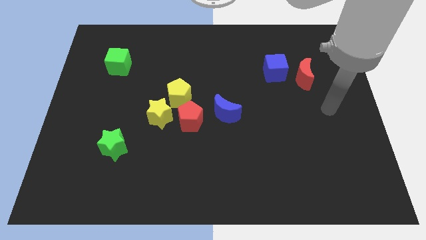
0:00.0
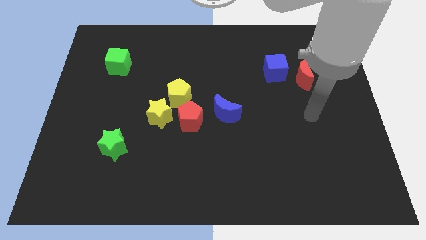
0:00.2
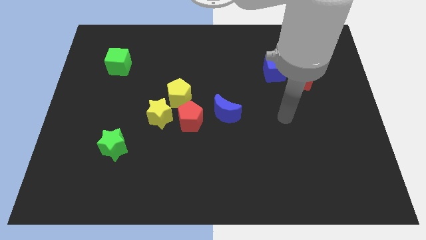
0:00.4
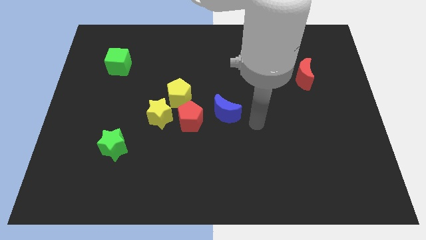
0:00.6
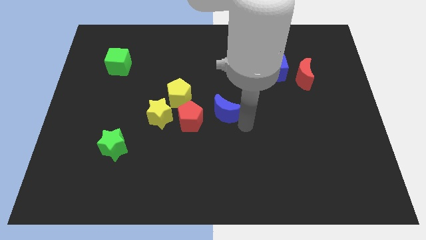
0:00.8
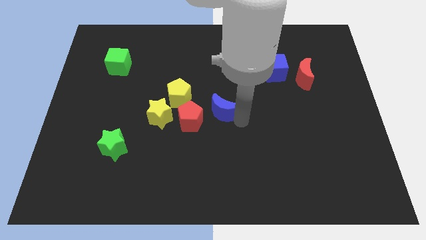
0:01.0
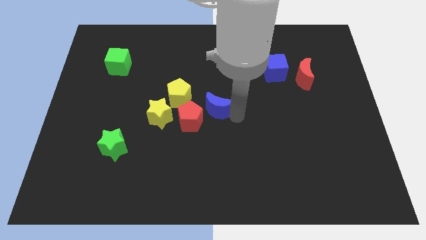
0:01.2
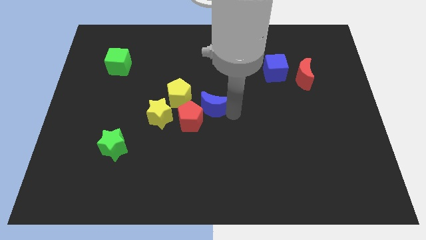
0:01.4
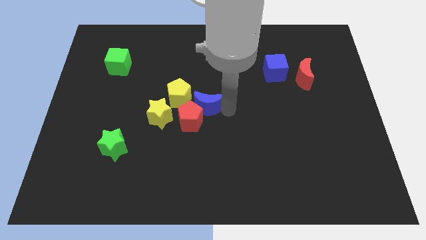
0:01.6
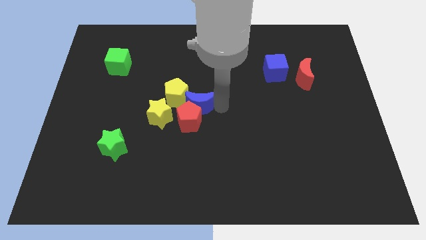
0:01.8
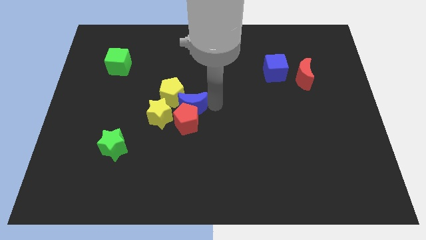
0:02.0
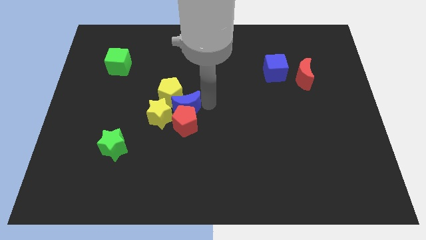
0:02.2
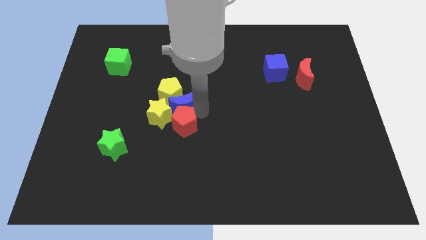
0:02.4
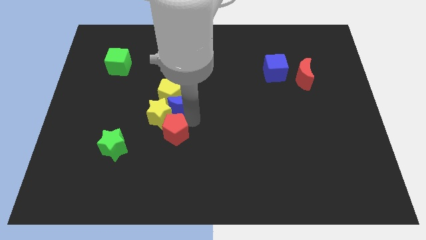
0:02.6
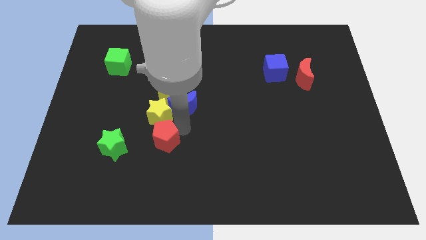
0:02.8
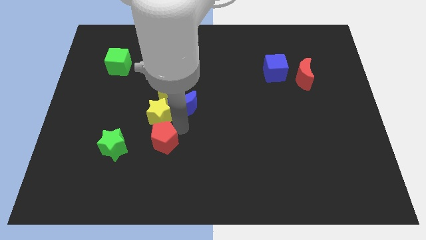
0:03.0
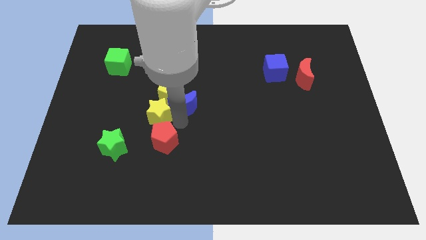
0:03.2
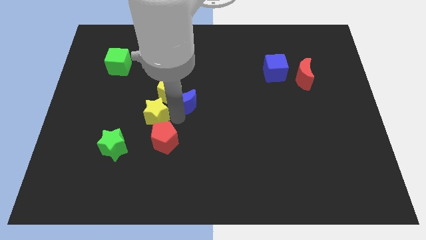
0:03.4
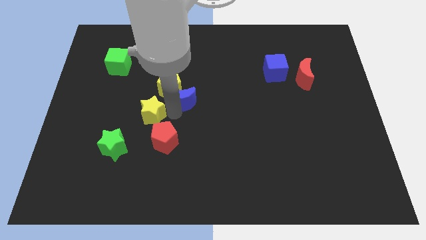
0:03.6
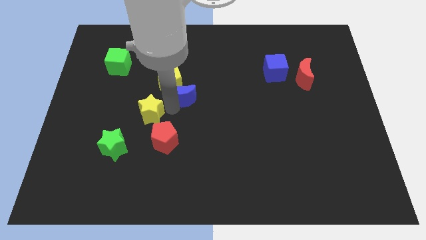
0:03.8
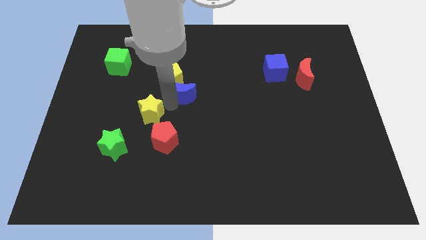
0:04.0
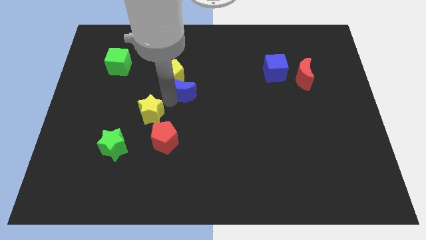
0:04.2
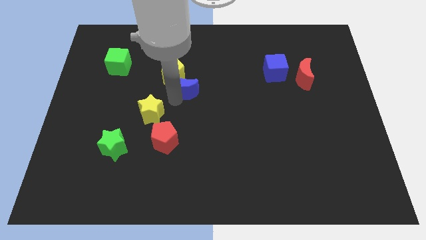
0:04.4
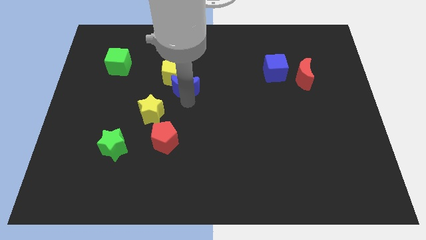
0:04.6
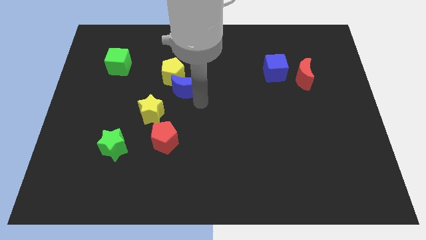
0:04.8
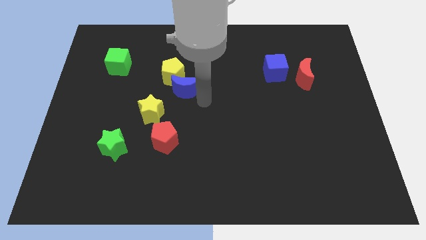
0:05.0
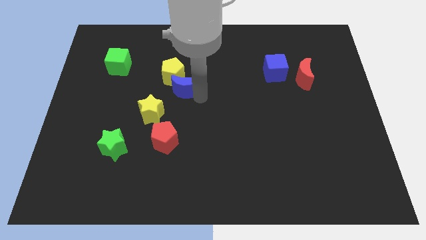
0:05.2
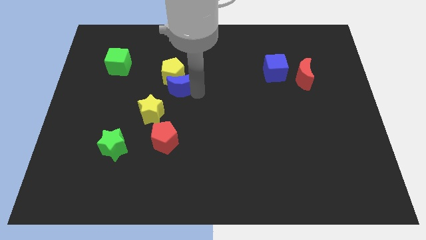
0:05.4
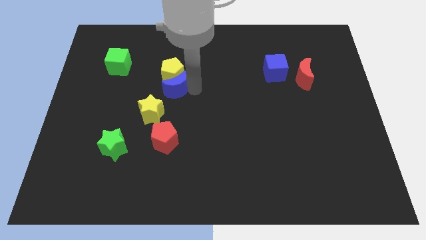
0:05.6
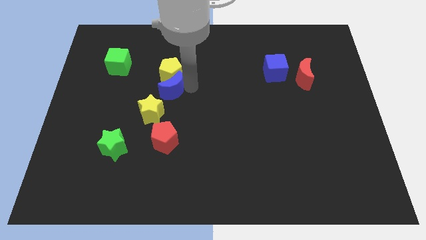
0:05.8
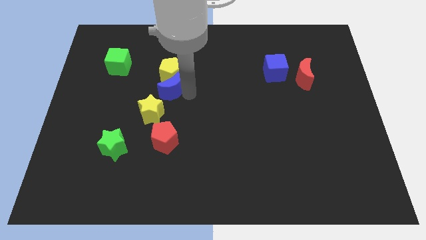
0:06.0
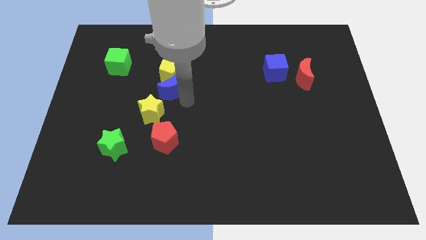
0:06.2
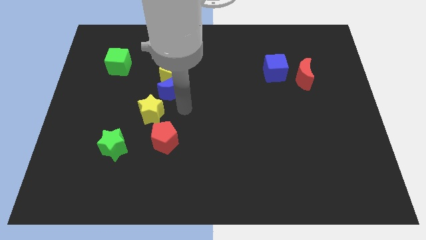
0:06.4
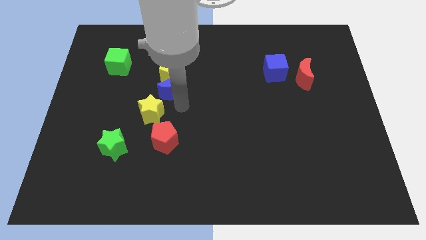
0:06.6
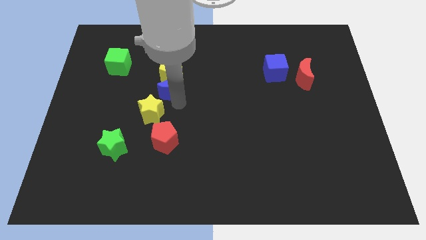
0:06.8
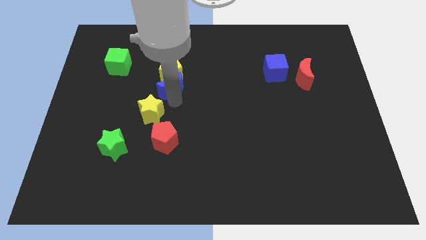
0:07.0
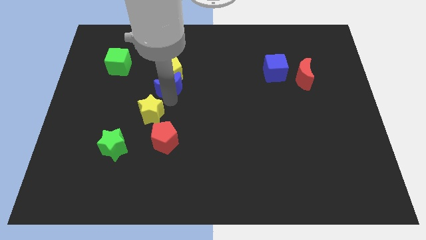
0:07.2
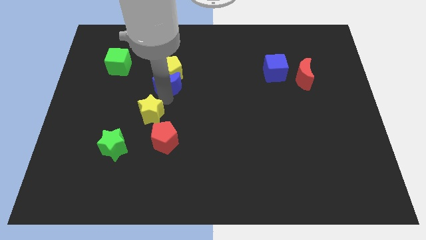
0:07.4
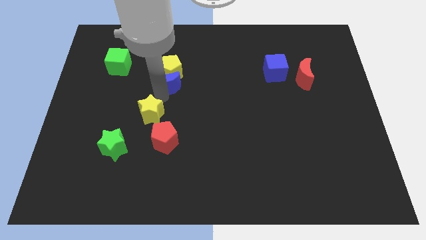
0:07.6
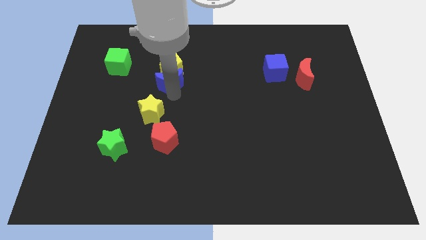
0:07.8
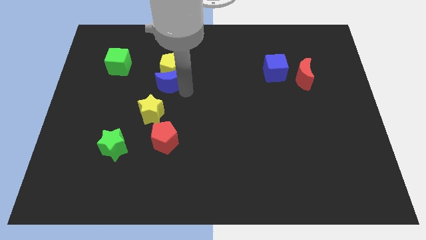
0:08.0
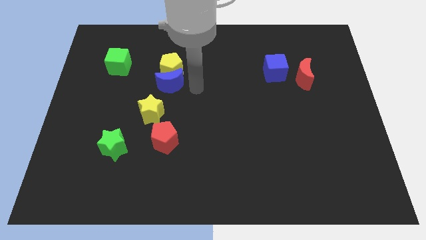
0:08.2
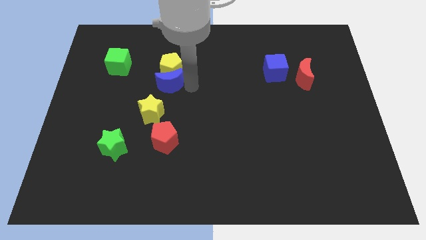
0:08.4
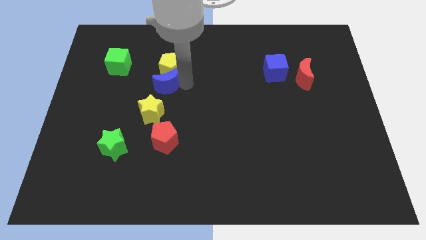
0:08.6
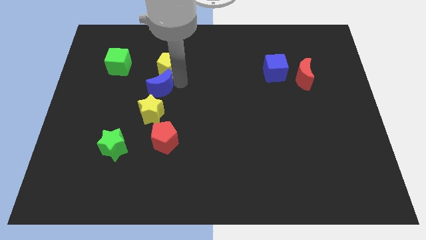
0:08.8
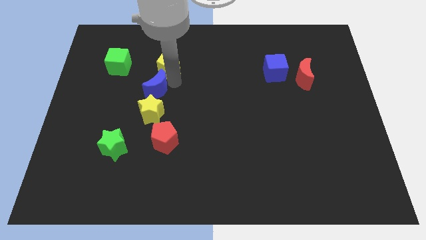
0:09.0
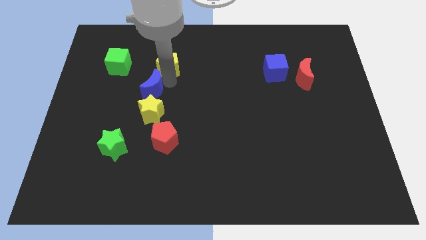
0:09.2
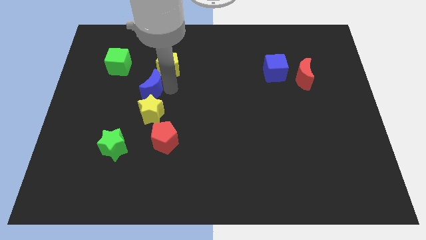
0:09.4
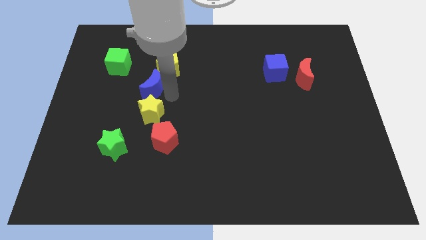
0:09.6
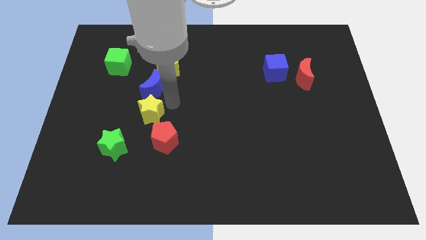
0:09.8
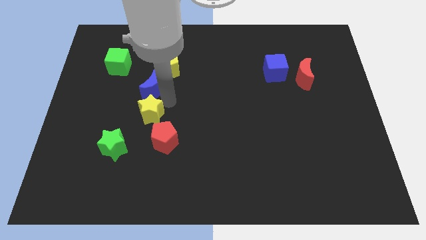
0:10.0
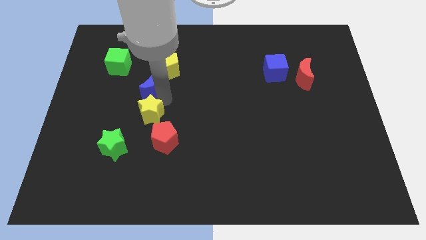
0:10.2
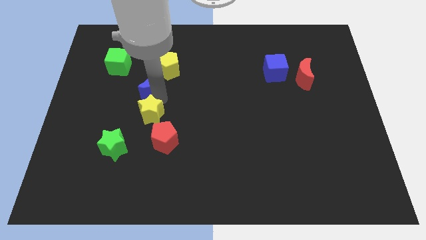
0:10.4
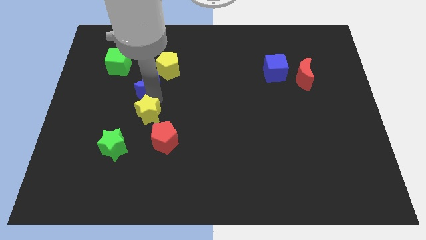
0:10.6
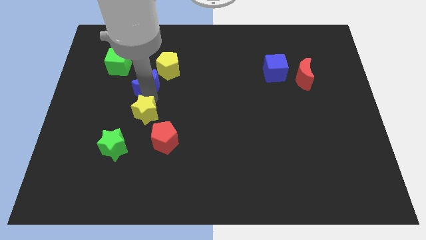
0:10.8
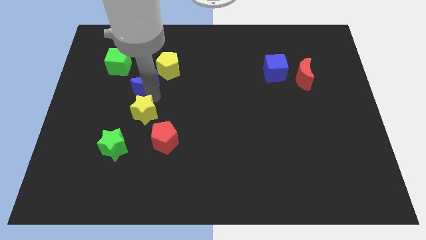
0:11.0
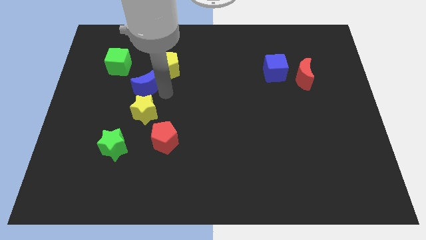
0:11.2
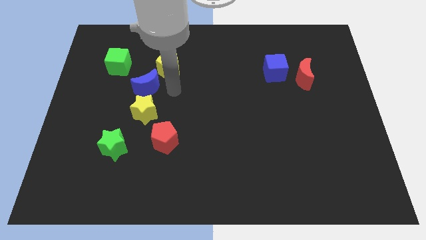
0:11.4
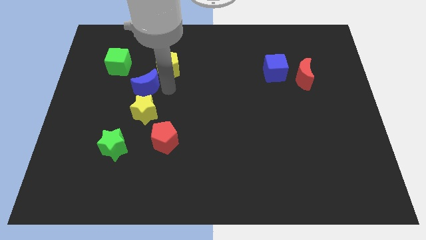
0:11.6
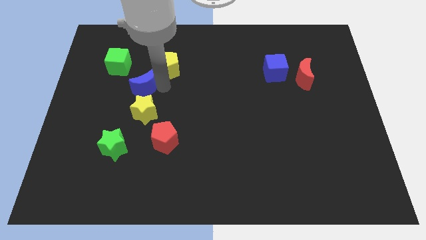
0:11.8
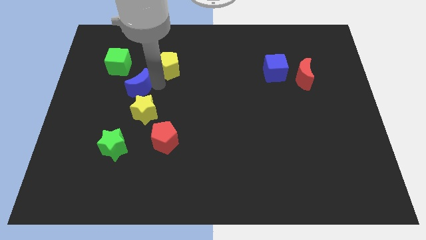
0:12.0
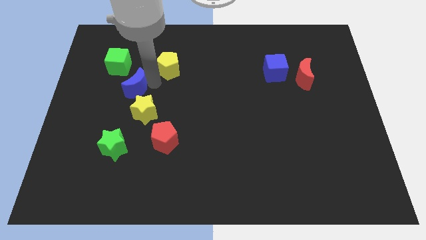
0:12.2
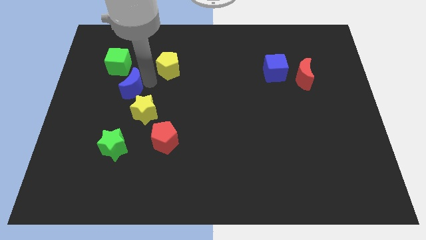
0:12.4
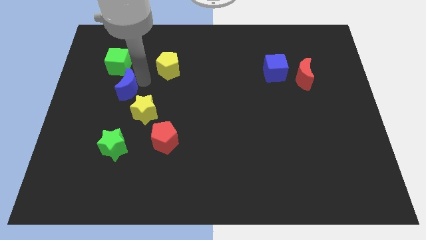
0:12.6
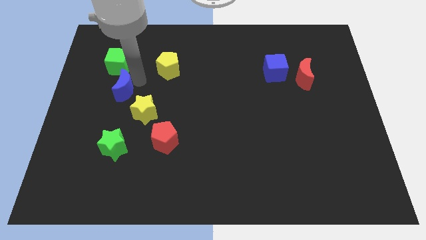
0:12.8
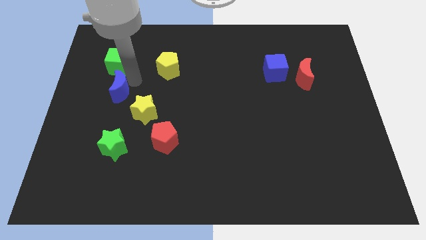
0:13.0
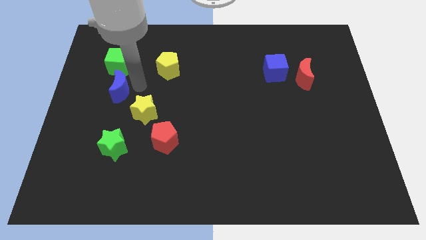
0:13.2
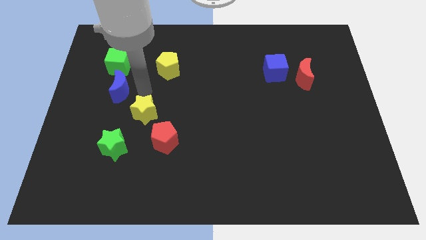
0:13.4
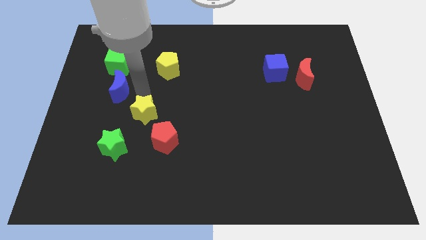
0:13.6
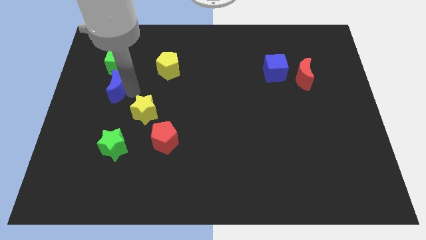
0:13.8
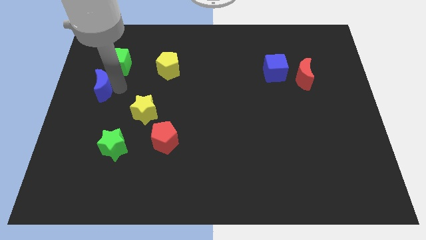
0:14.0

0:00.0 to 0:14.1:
slide the blue moon to the left side of the board
